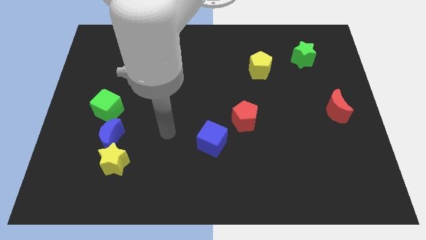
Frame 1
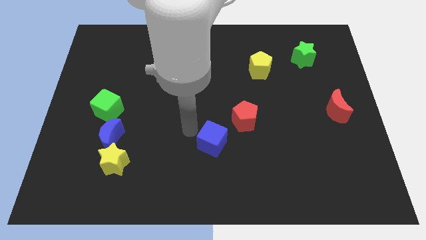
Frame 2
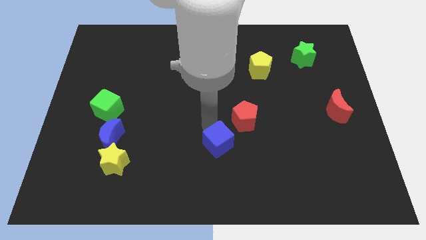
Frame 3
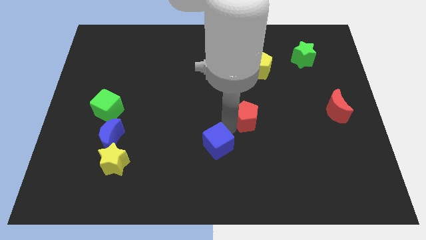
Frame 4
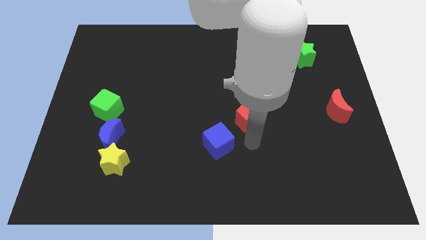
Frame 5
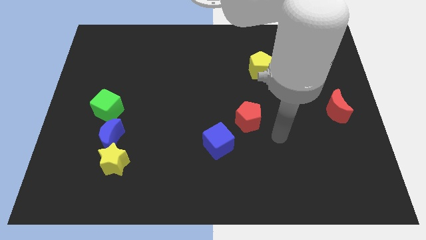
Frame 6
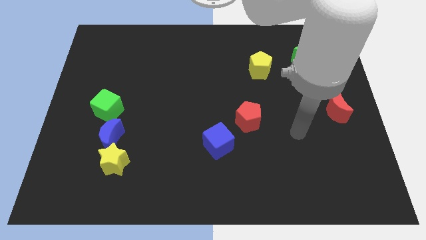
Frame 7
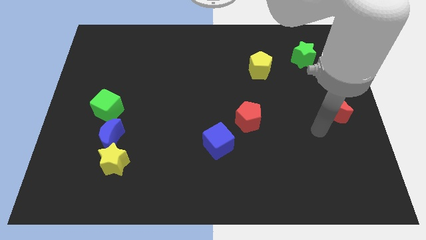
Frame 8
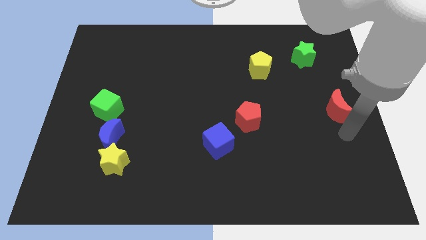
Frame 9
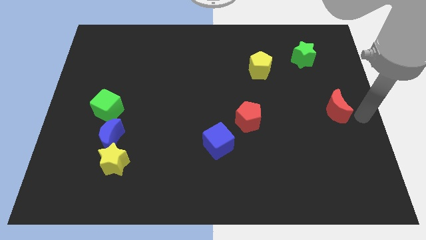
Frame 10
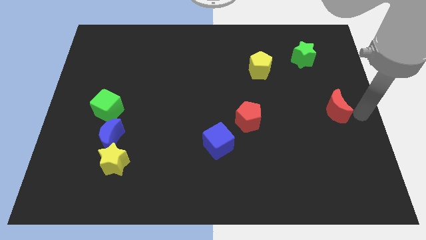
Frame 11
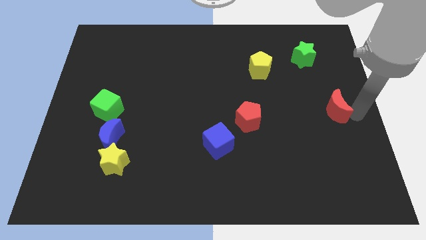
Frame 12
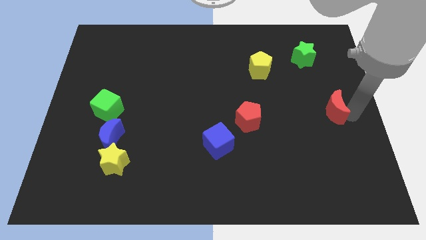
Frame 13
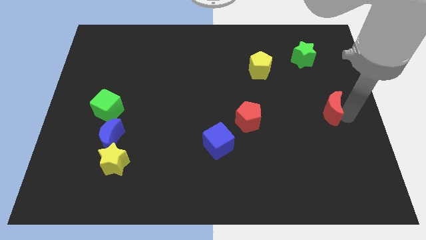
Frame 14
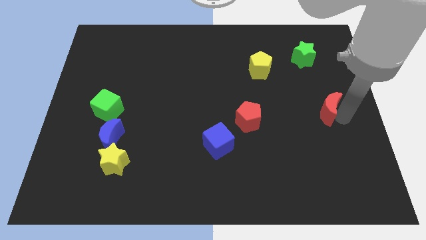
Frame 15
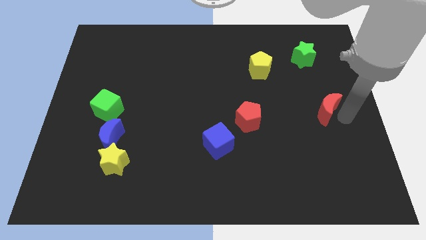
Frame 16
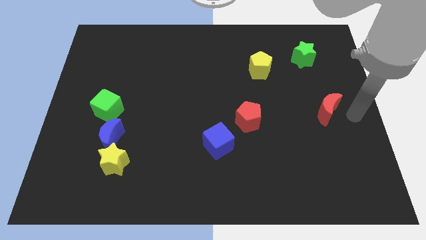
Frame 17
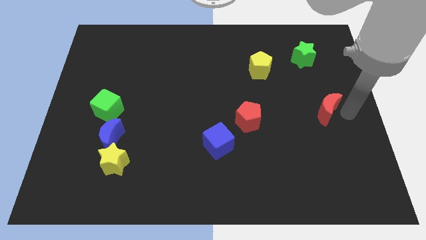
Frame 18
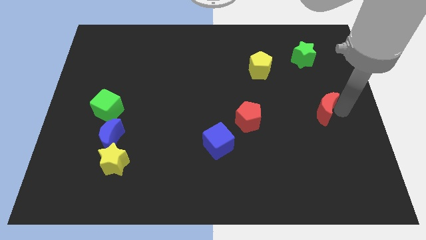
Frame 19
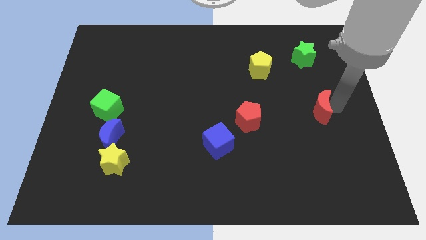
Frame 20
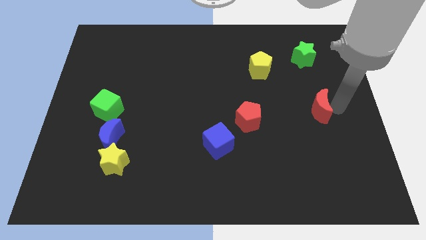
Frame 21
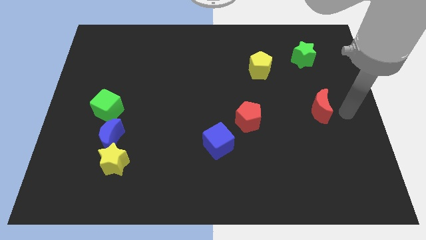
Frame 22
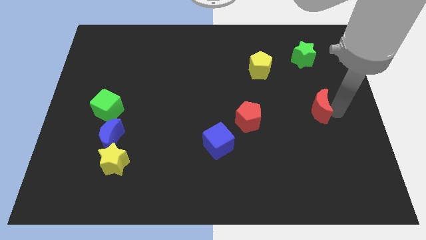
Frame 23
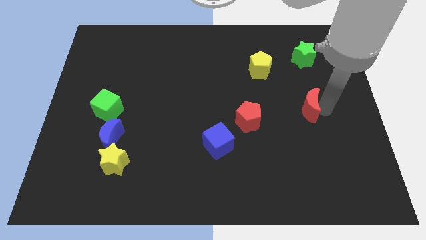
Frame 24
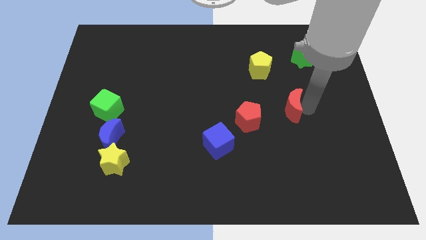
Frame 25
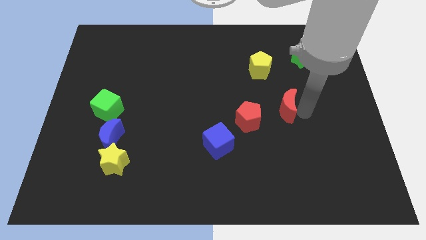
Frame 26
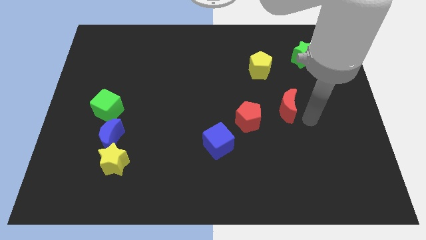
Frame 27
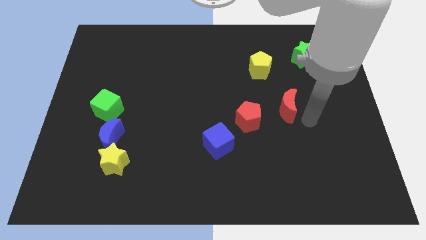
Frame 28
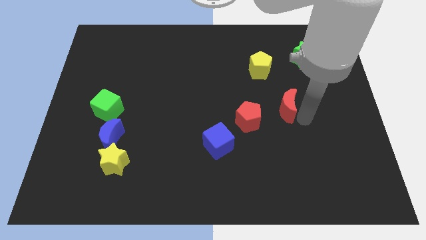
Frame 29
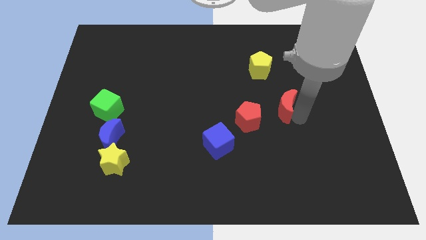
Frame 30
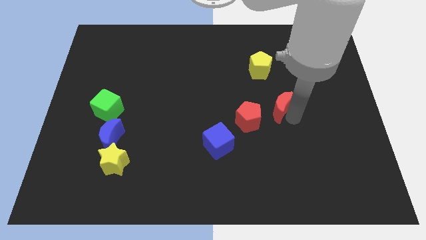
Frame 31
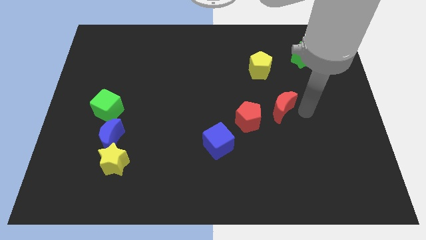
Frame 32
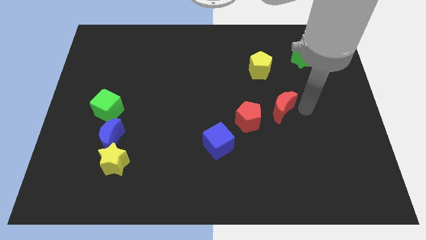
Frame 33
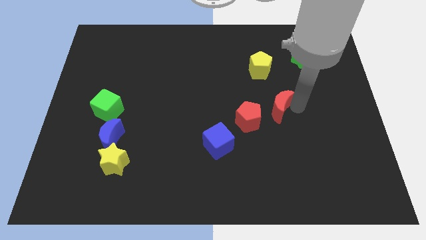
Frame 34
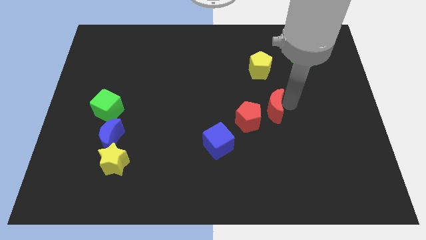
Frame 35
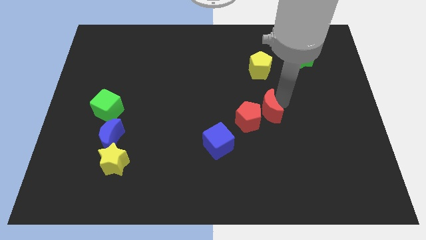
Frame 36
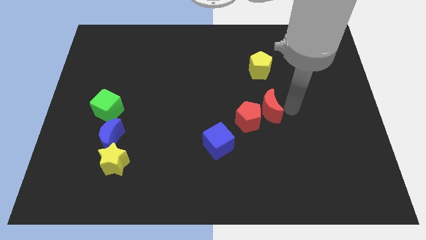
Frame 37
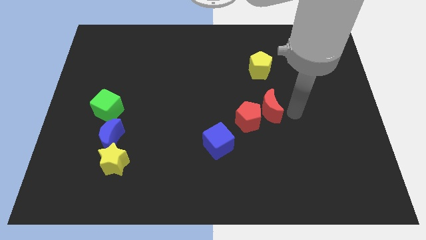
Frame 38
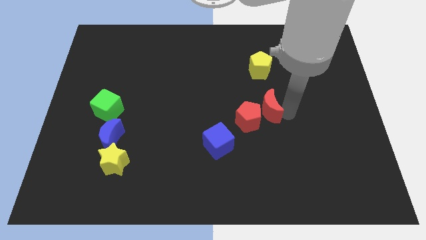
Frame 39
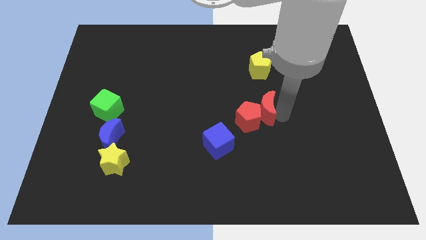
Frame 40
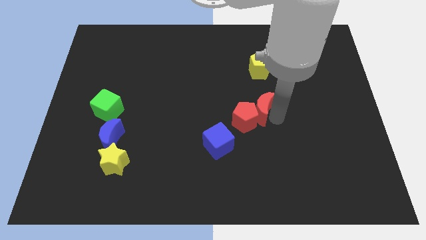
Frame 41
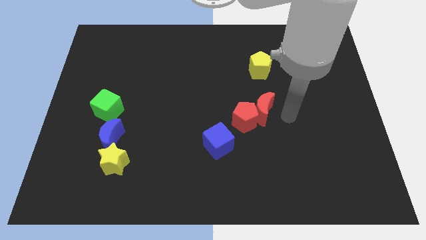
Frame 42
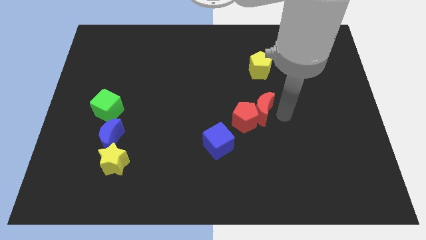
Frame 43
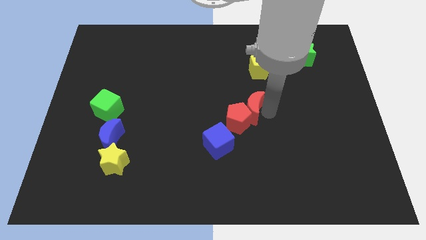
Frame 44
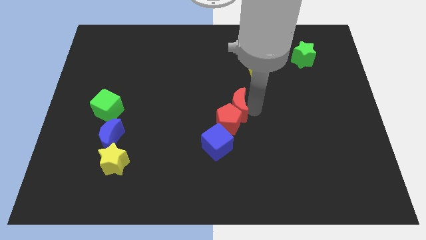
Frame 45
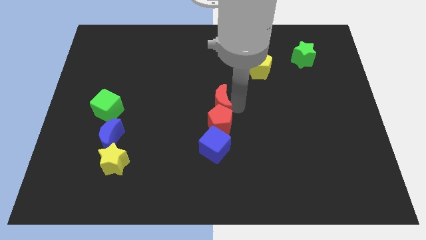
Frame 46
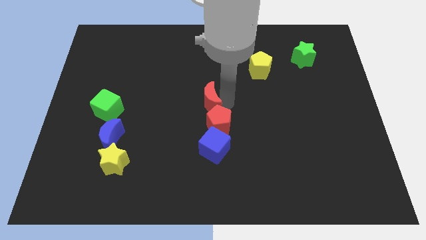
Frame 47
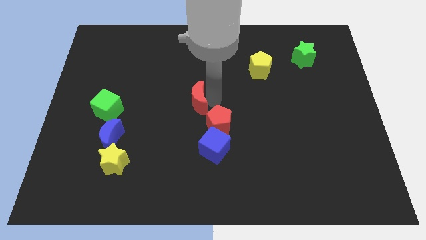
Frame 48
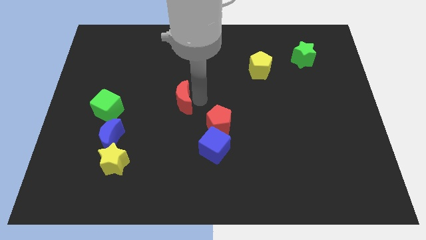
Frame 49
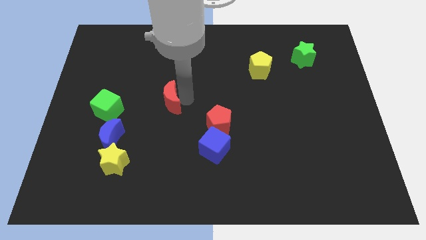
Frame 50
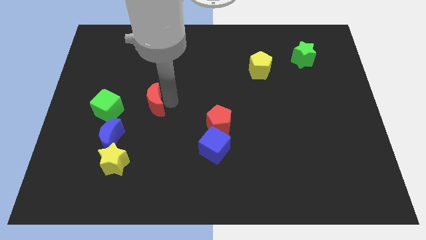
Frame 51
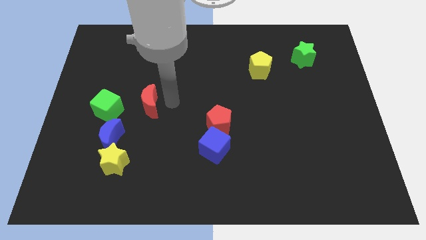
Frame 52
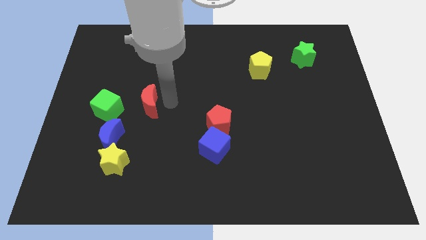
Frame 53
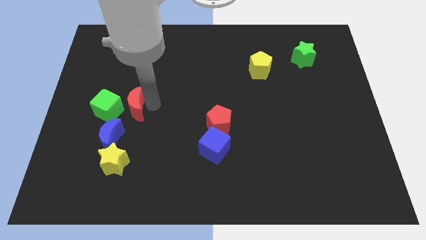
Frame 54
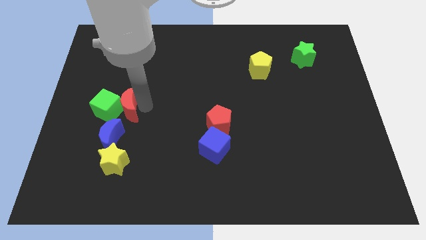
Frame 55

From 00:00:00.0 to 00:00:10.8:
move the red moon towards the green cube

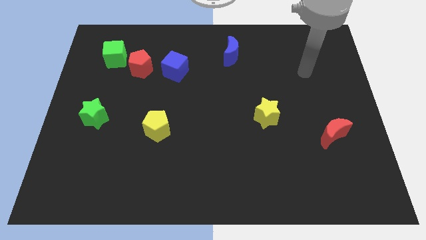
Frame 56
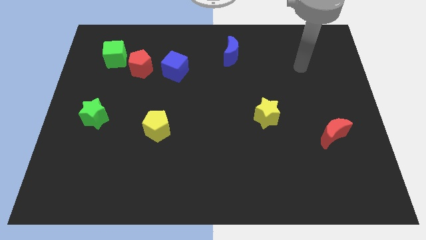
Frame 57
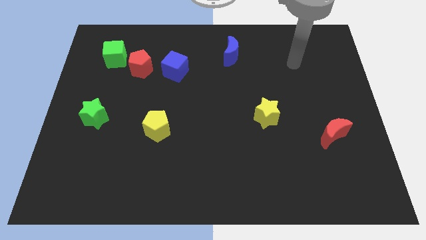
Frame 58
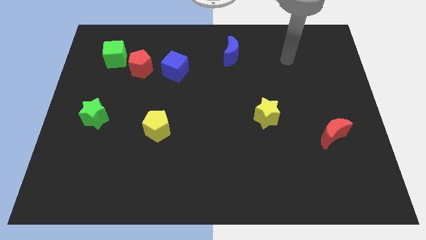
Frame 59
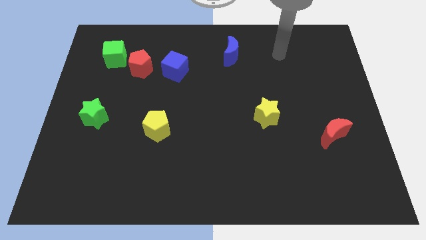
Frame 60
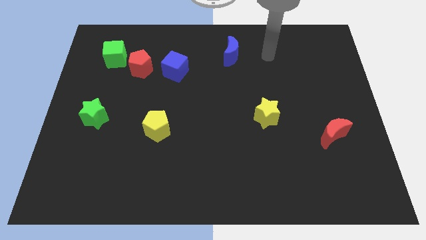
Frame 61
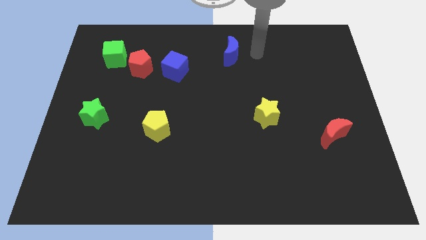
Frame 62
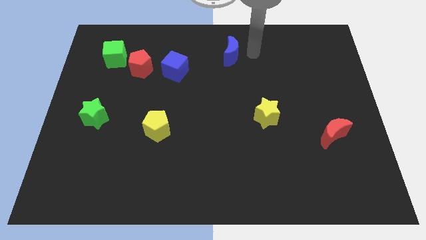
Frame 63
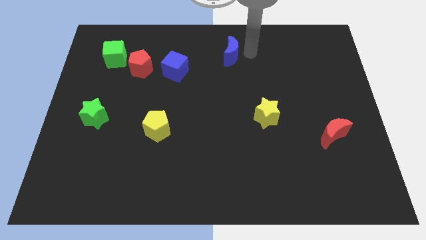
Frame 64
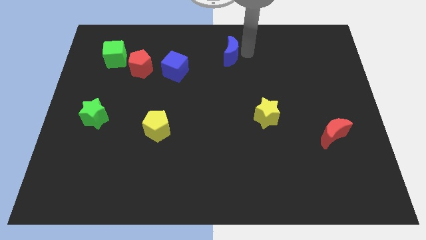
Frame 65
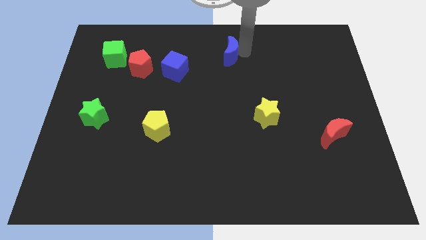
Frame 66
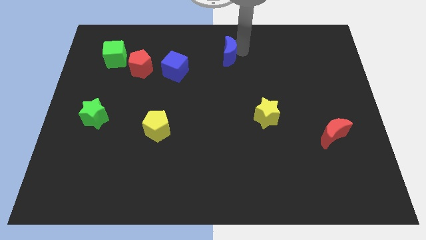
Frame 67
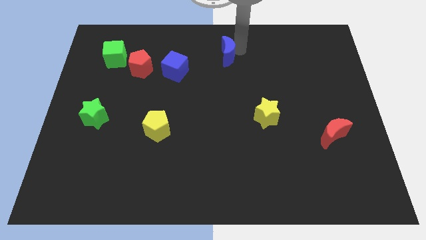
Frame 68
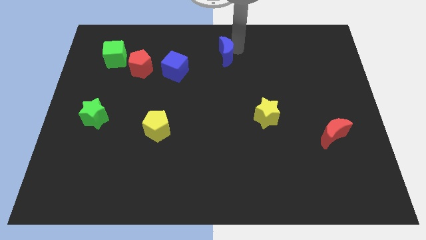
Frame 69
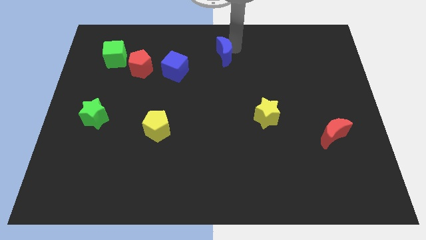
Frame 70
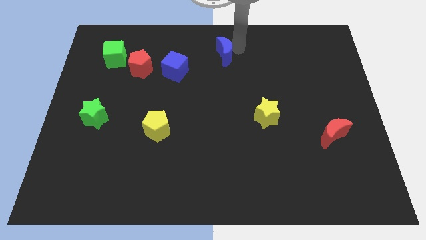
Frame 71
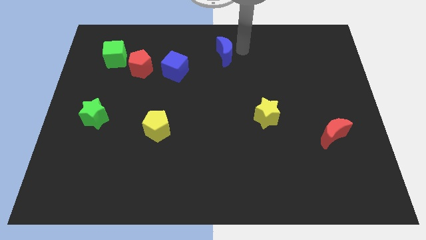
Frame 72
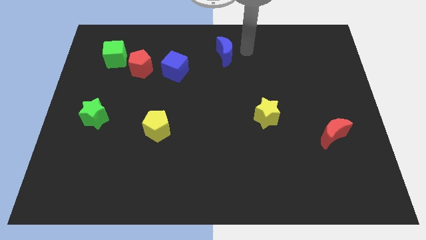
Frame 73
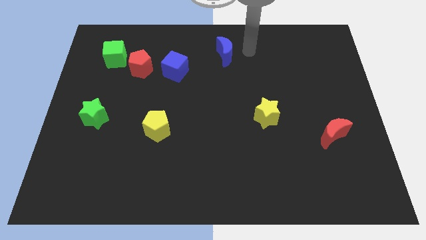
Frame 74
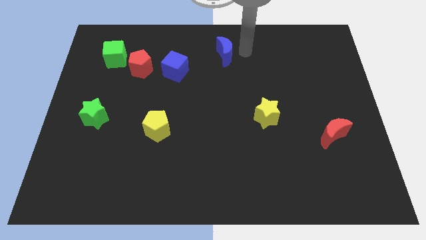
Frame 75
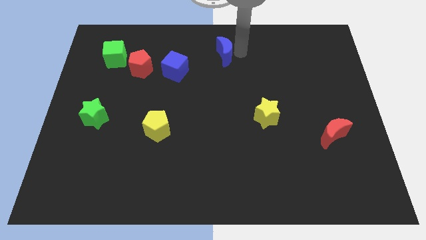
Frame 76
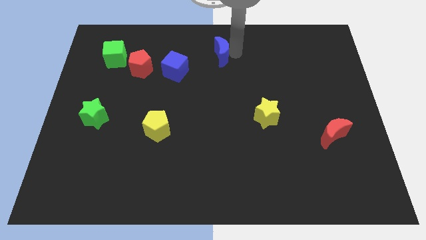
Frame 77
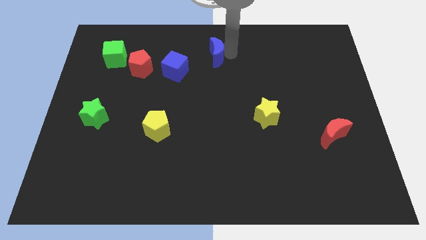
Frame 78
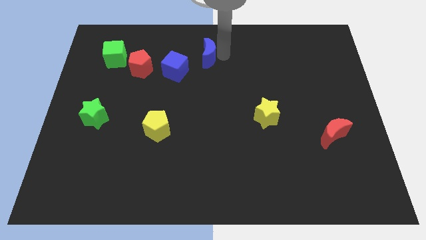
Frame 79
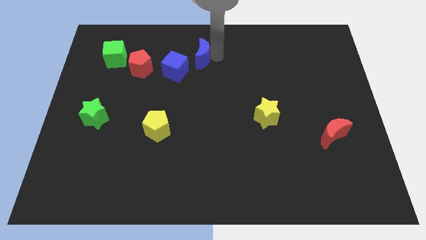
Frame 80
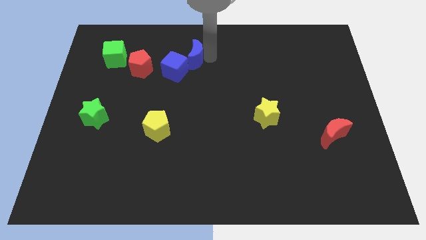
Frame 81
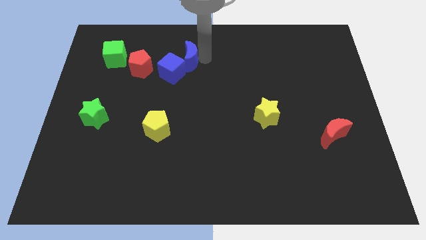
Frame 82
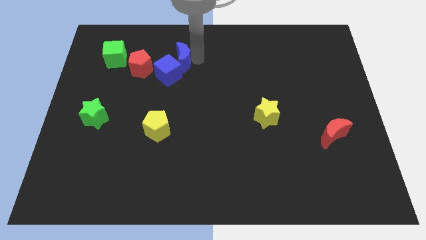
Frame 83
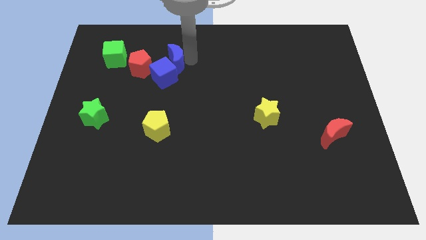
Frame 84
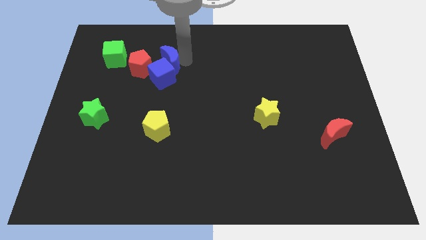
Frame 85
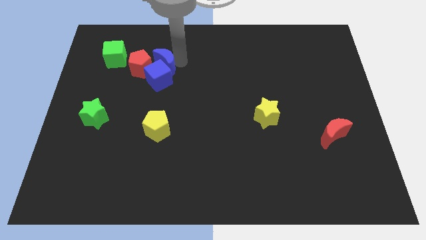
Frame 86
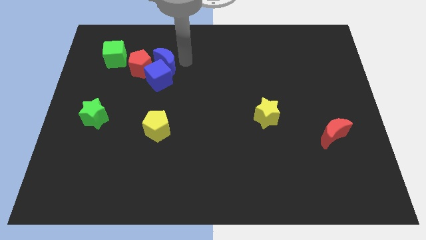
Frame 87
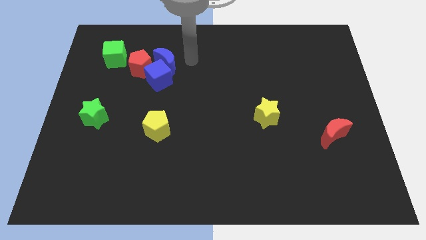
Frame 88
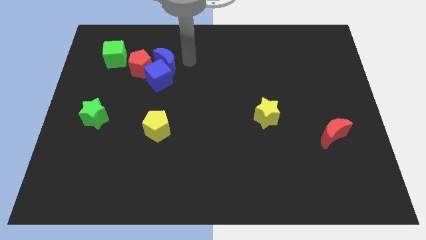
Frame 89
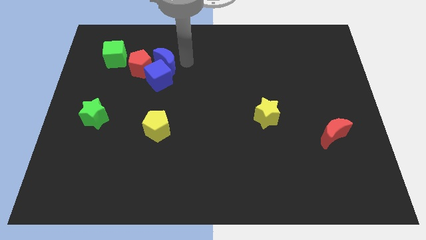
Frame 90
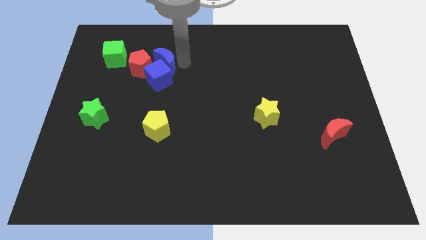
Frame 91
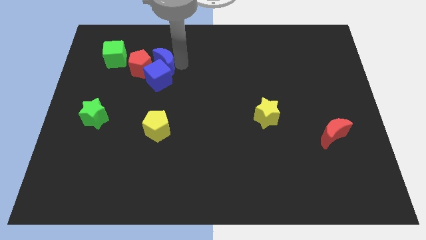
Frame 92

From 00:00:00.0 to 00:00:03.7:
slide the blue moon close to the red pentagon
